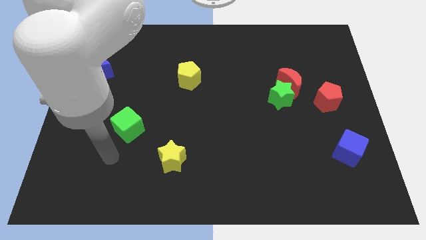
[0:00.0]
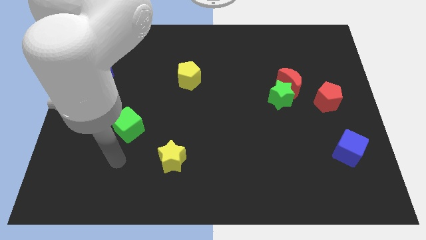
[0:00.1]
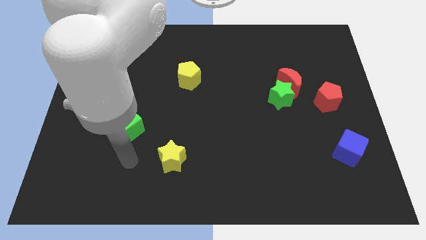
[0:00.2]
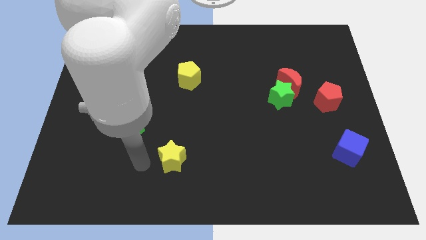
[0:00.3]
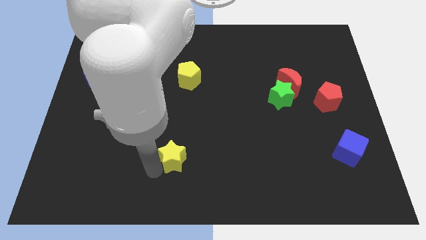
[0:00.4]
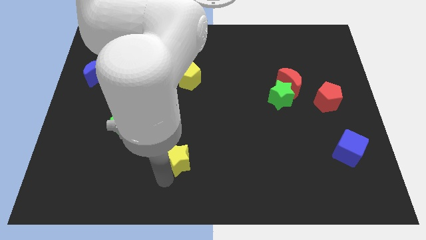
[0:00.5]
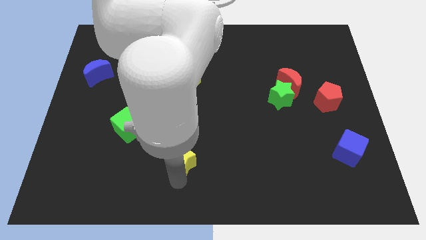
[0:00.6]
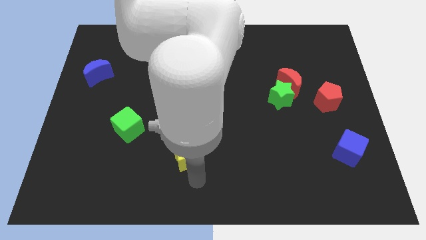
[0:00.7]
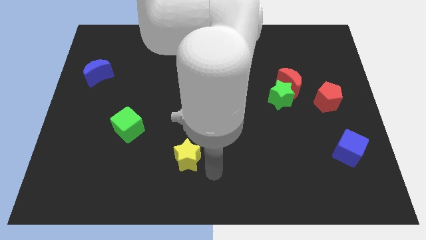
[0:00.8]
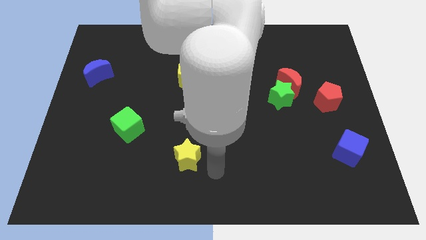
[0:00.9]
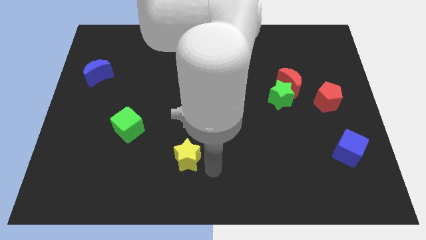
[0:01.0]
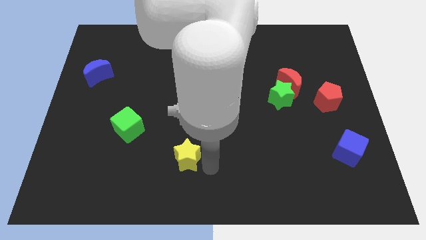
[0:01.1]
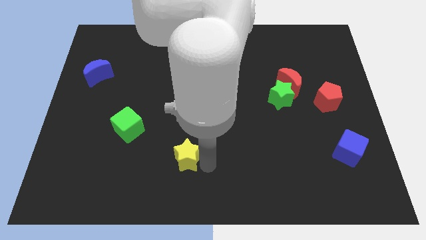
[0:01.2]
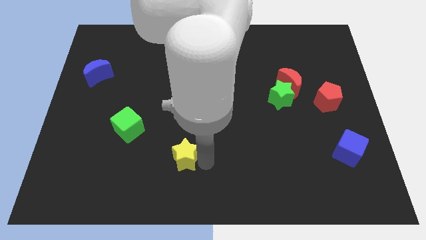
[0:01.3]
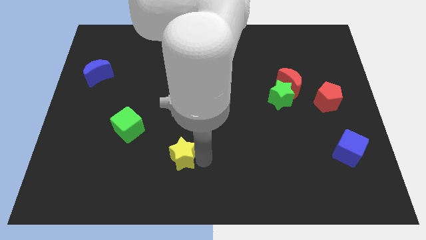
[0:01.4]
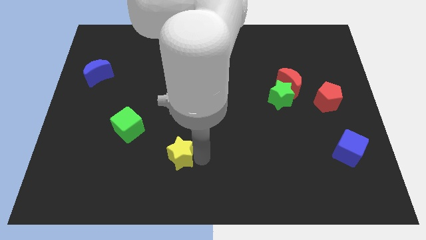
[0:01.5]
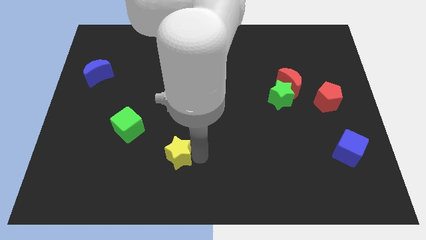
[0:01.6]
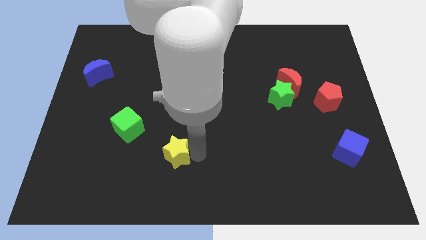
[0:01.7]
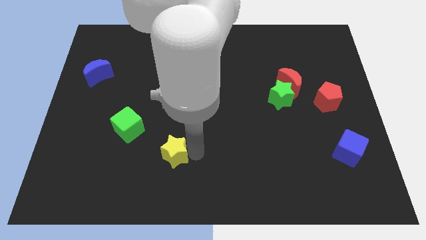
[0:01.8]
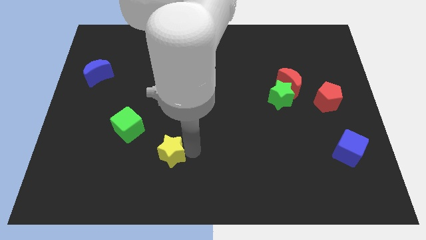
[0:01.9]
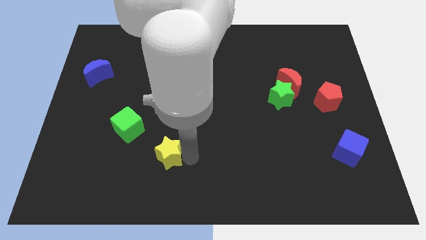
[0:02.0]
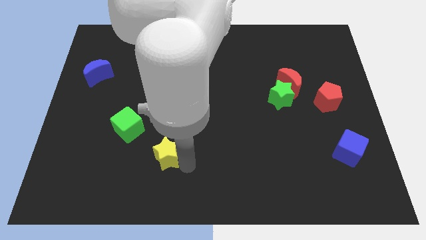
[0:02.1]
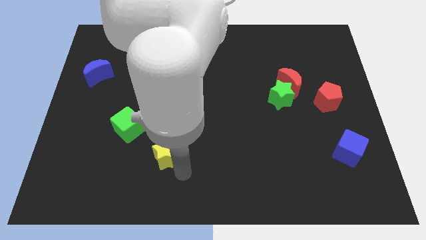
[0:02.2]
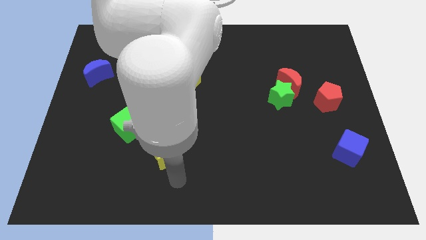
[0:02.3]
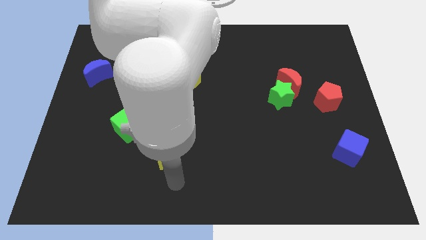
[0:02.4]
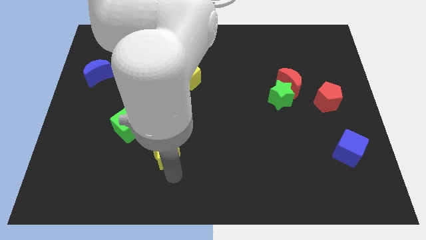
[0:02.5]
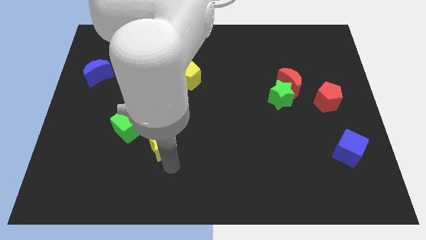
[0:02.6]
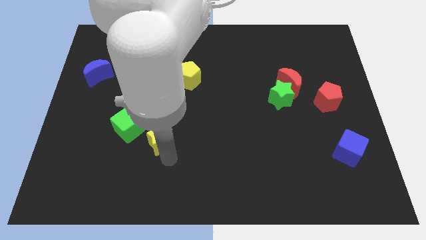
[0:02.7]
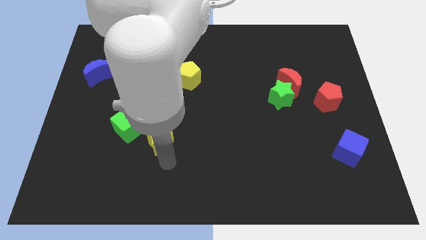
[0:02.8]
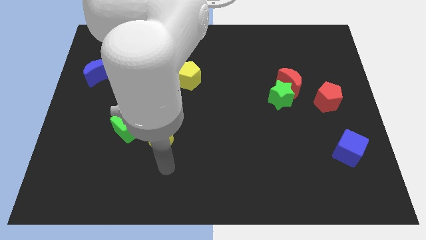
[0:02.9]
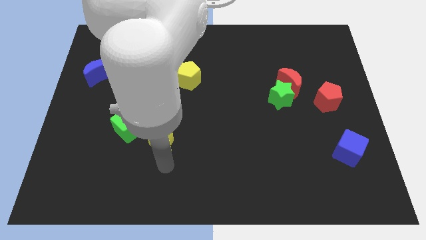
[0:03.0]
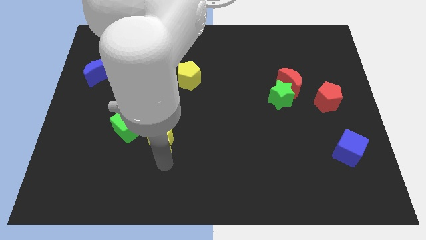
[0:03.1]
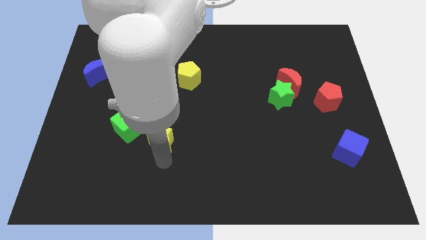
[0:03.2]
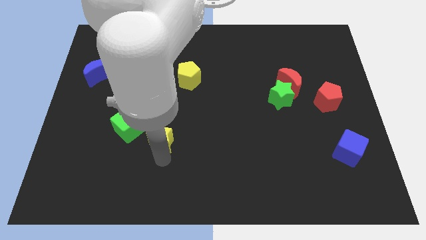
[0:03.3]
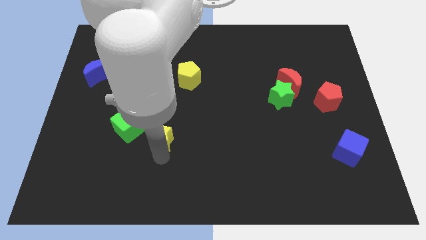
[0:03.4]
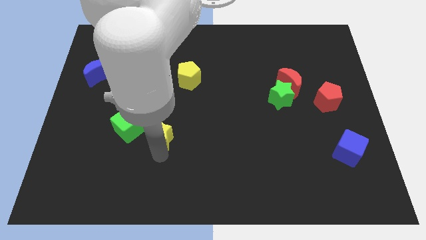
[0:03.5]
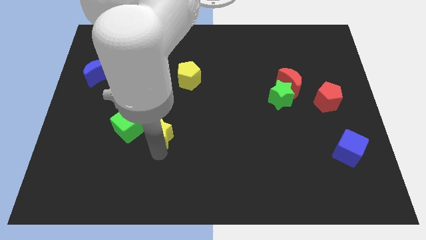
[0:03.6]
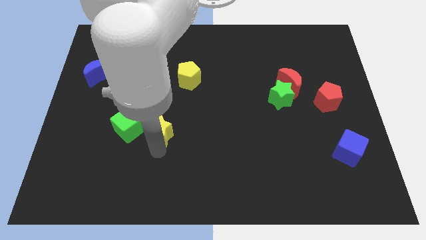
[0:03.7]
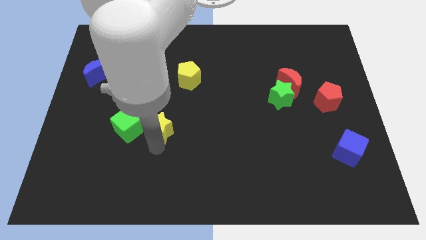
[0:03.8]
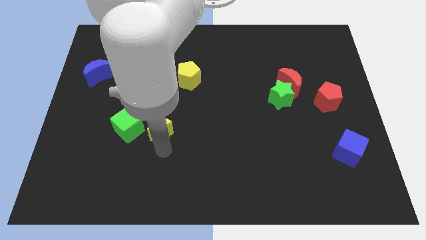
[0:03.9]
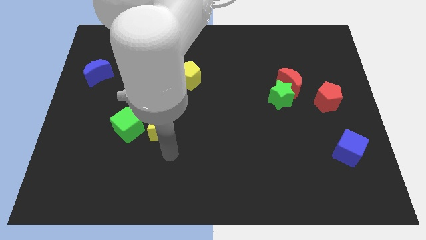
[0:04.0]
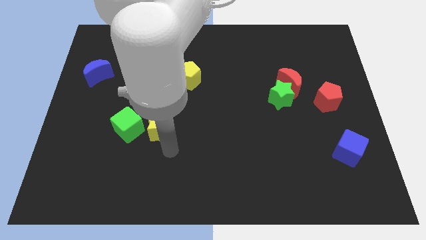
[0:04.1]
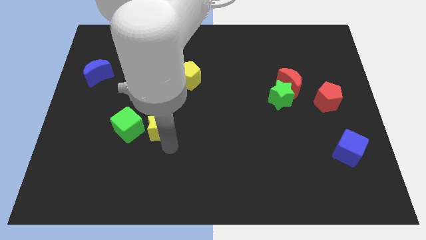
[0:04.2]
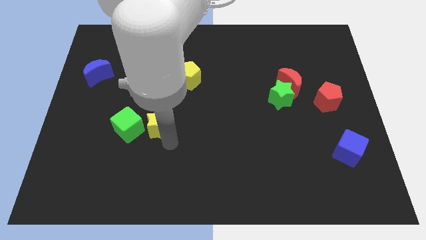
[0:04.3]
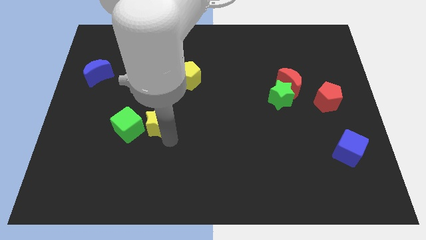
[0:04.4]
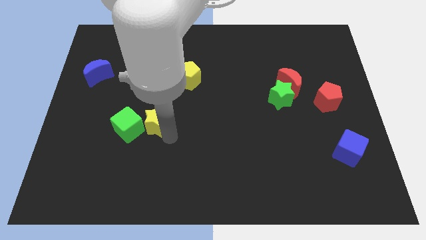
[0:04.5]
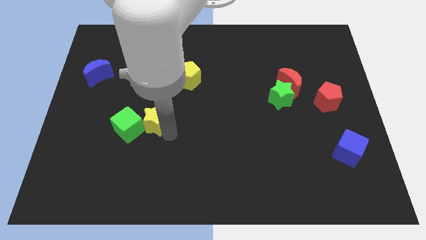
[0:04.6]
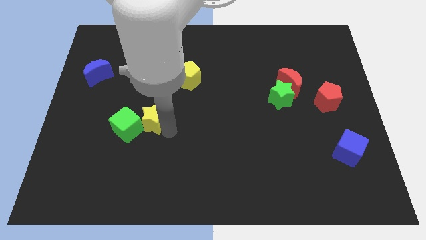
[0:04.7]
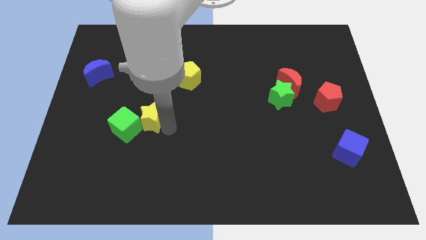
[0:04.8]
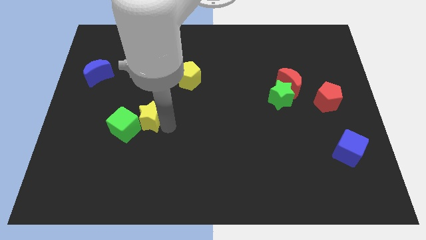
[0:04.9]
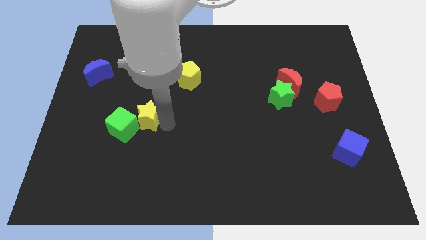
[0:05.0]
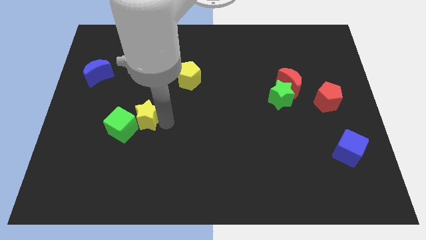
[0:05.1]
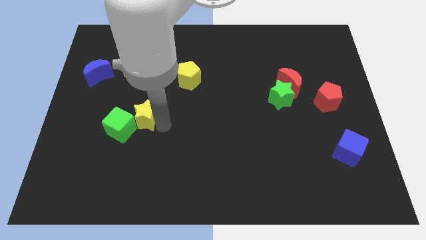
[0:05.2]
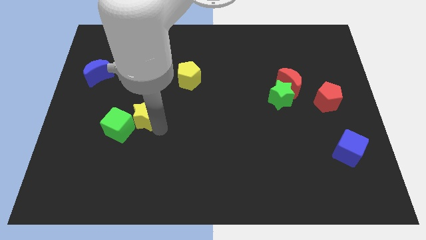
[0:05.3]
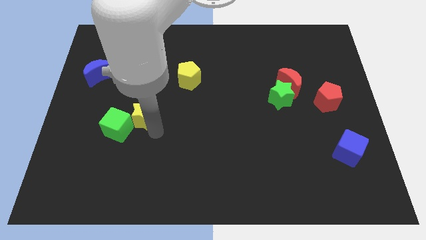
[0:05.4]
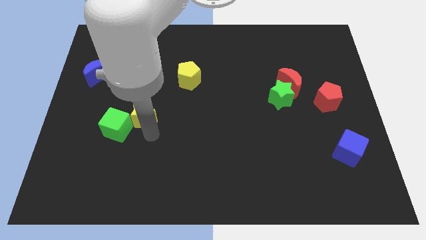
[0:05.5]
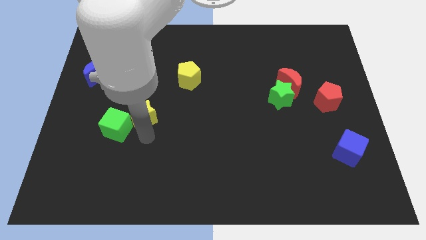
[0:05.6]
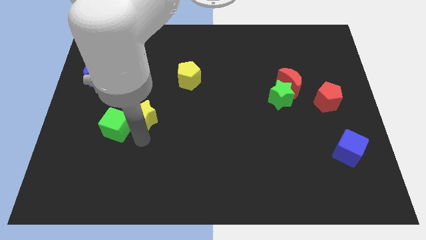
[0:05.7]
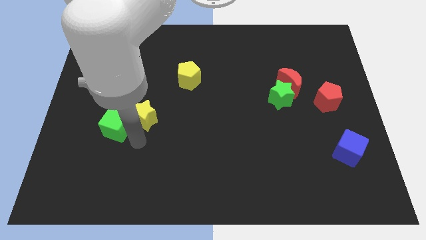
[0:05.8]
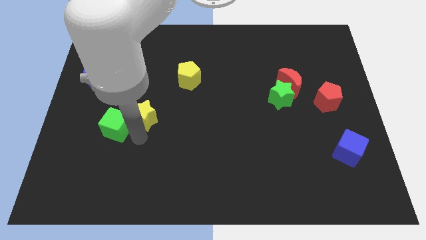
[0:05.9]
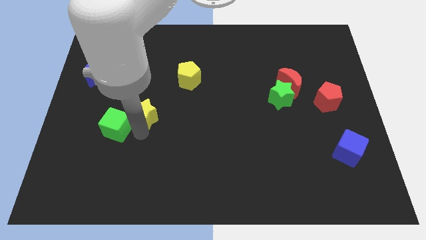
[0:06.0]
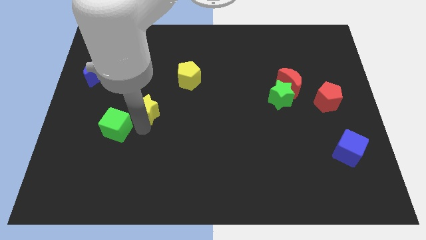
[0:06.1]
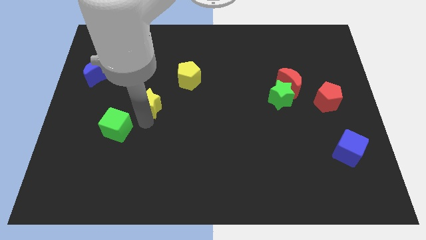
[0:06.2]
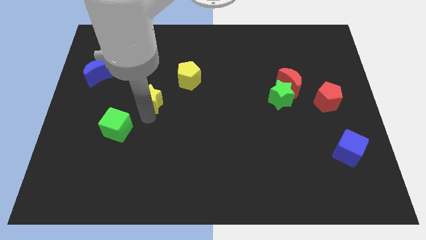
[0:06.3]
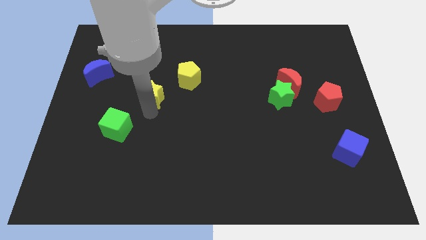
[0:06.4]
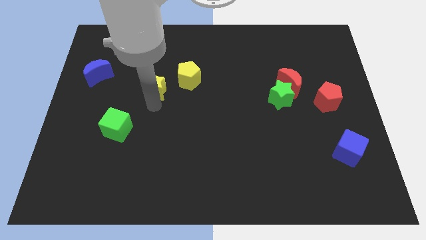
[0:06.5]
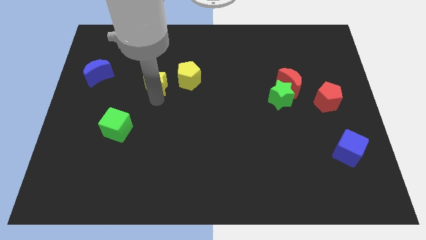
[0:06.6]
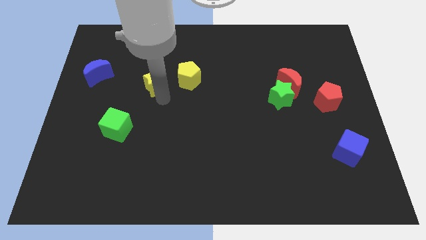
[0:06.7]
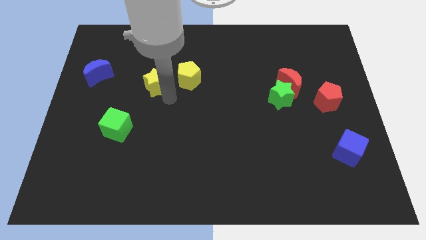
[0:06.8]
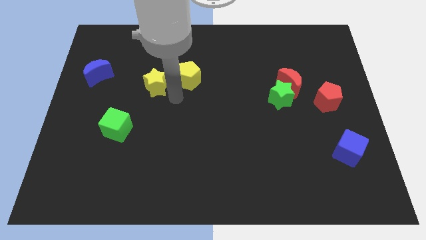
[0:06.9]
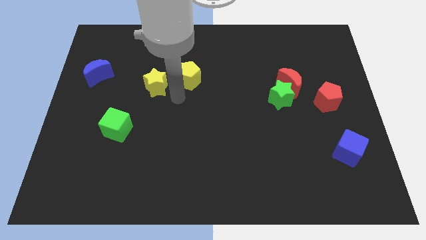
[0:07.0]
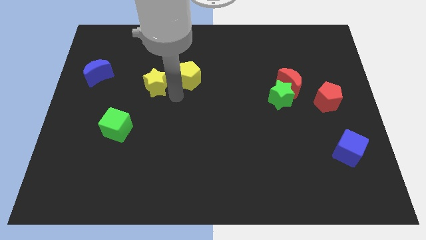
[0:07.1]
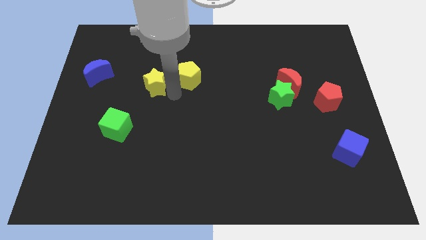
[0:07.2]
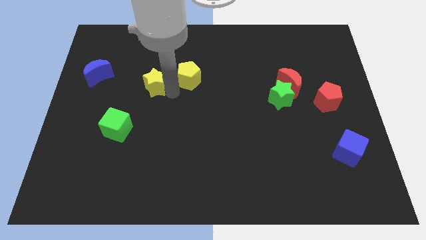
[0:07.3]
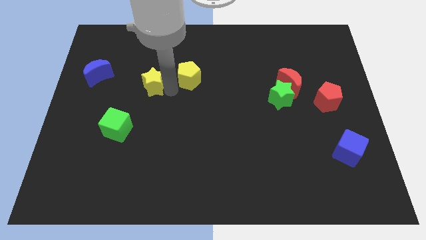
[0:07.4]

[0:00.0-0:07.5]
put the yellow star to the right of the blue moon
